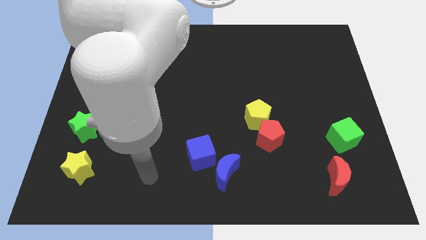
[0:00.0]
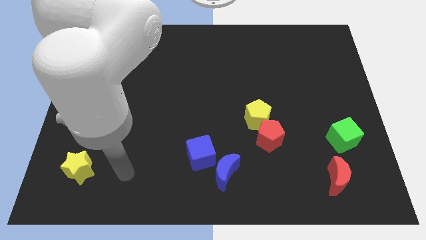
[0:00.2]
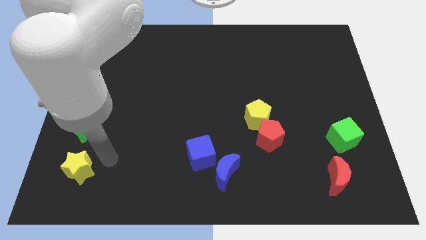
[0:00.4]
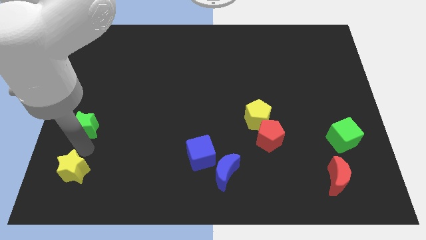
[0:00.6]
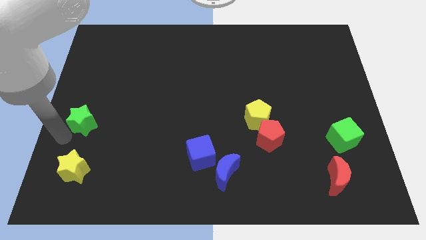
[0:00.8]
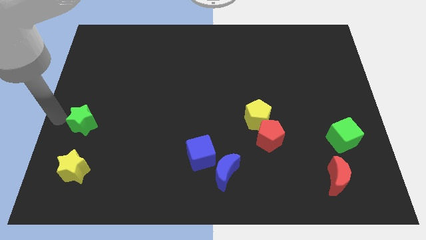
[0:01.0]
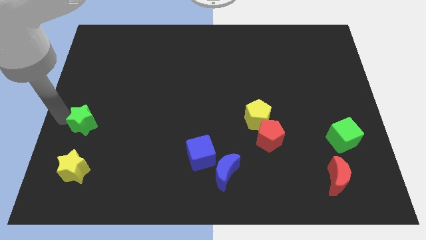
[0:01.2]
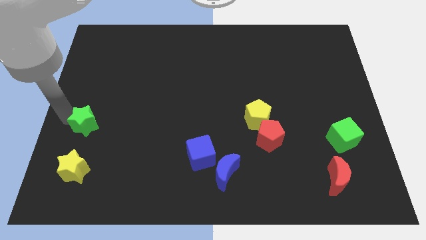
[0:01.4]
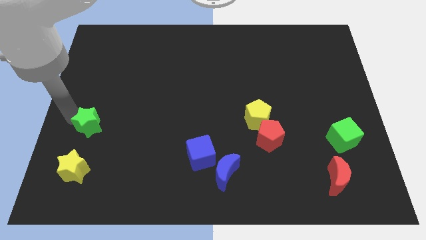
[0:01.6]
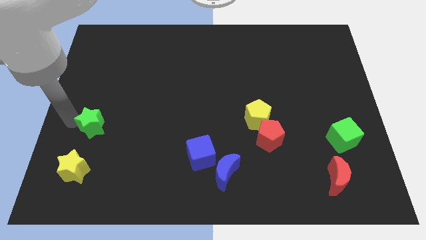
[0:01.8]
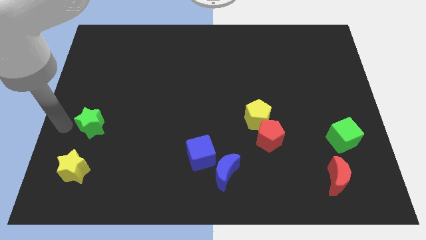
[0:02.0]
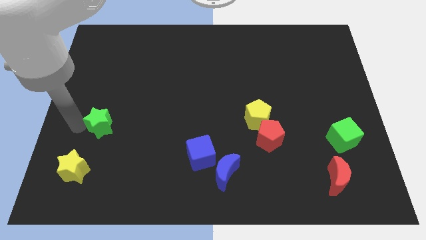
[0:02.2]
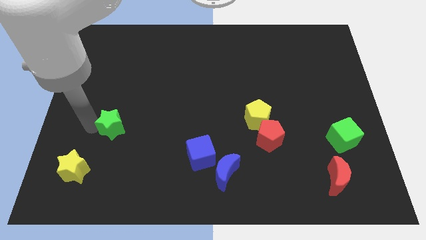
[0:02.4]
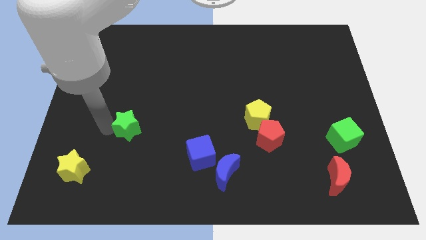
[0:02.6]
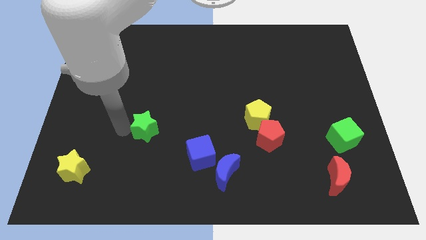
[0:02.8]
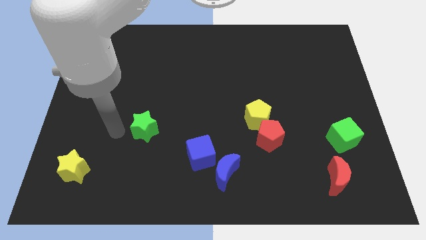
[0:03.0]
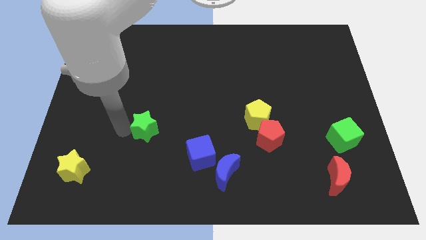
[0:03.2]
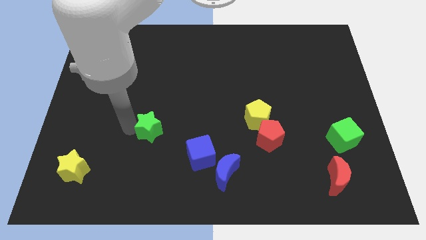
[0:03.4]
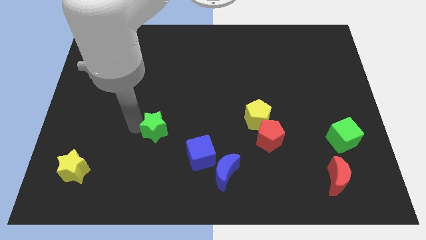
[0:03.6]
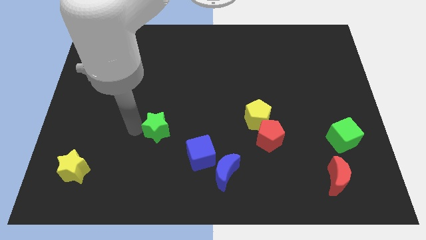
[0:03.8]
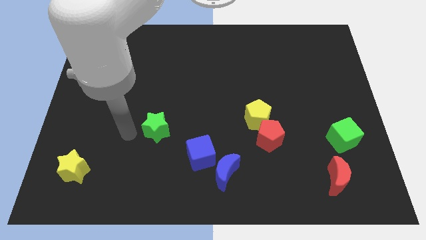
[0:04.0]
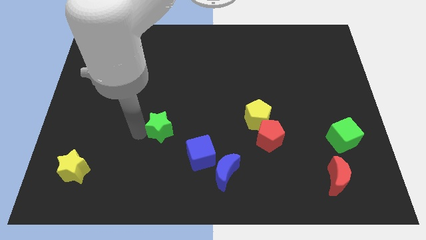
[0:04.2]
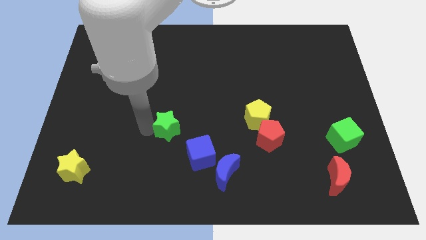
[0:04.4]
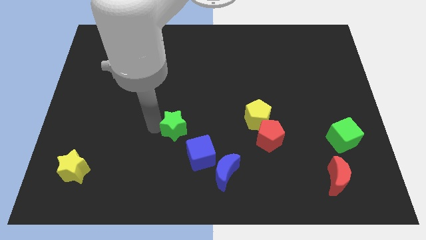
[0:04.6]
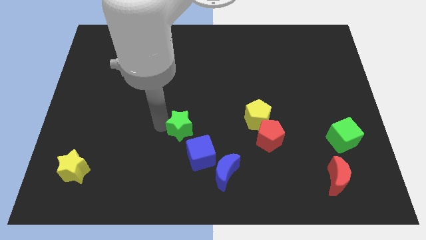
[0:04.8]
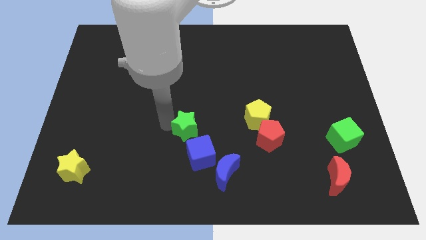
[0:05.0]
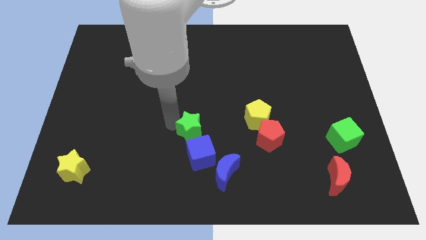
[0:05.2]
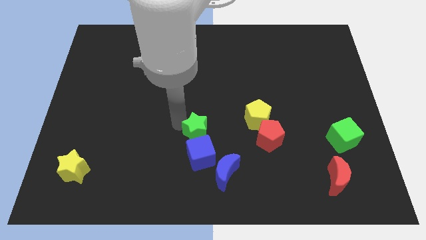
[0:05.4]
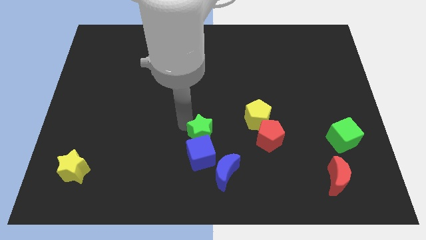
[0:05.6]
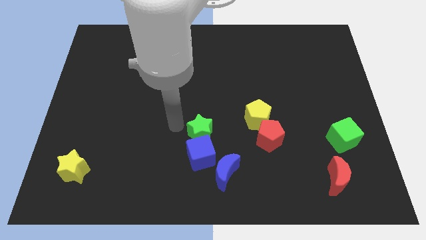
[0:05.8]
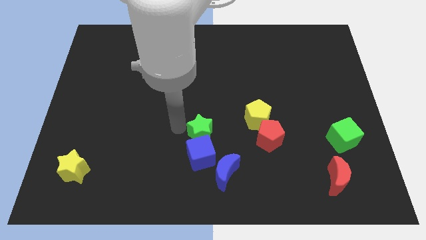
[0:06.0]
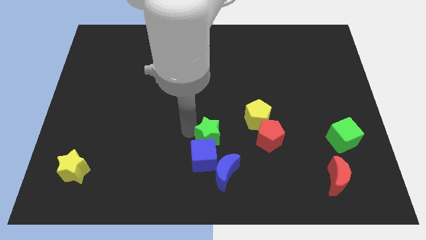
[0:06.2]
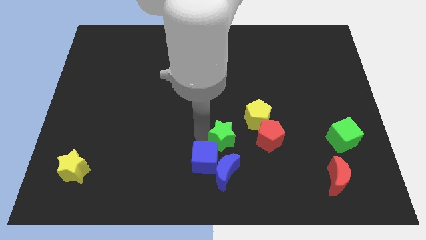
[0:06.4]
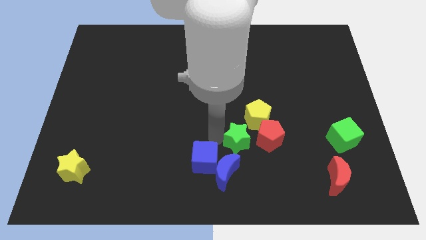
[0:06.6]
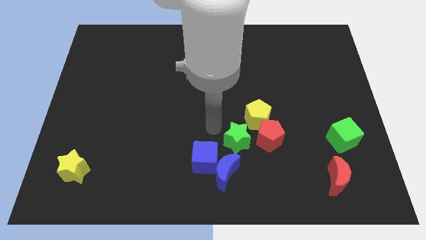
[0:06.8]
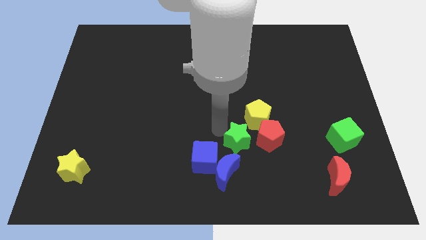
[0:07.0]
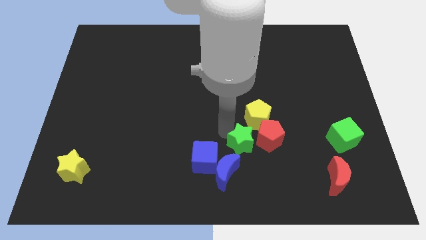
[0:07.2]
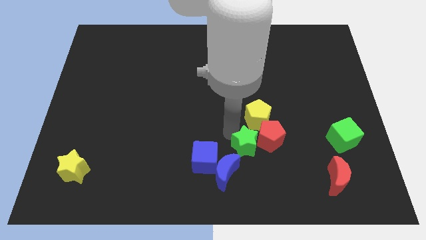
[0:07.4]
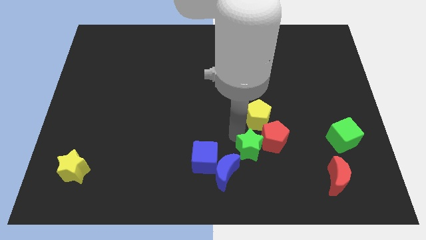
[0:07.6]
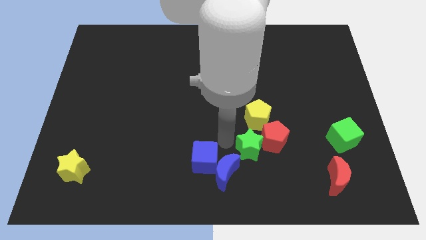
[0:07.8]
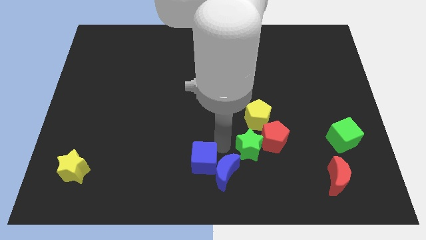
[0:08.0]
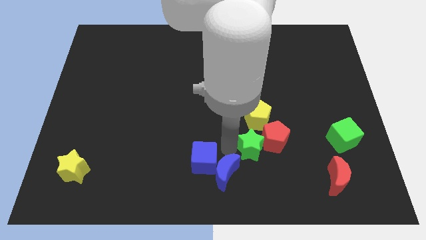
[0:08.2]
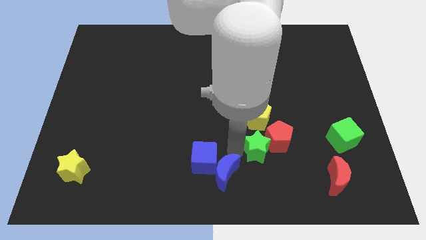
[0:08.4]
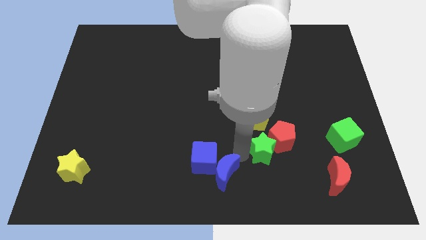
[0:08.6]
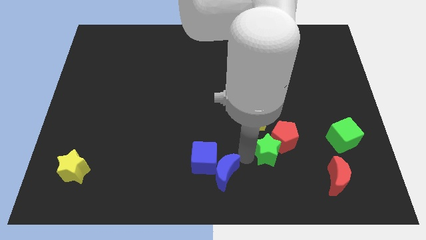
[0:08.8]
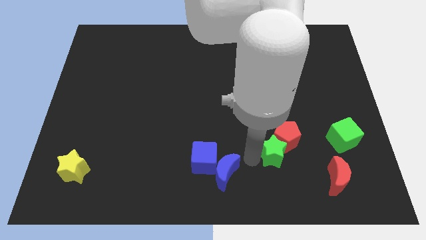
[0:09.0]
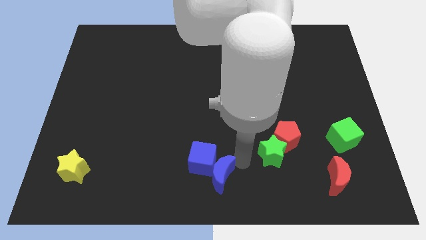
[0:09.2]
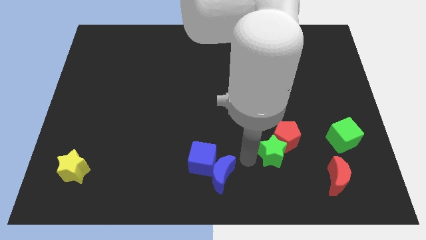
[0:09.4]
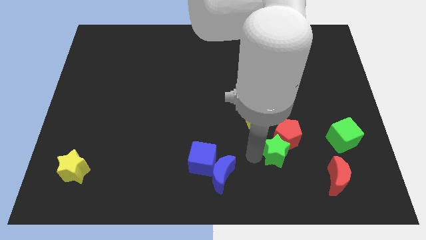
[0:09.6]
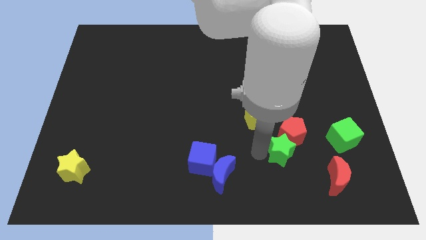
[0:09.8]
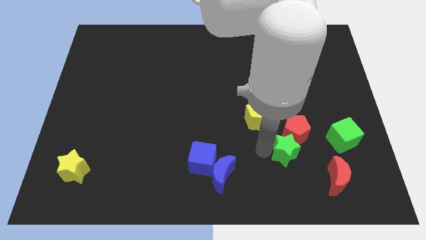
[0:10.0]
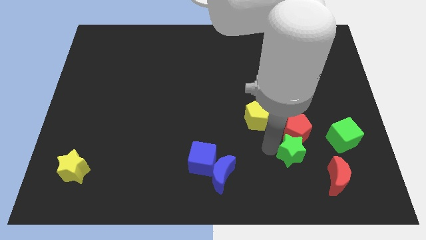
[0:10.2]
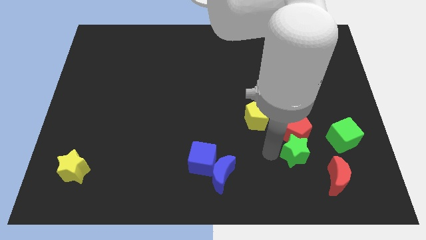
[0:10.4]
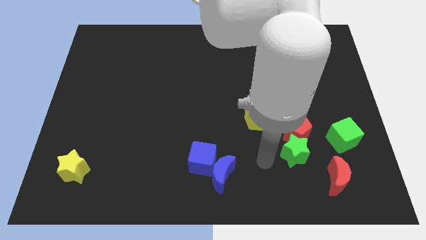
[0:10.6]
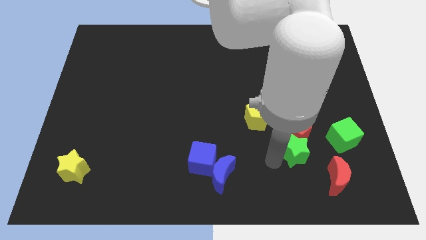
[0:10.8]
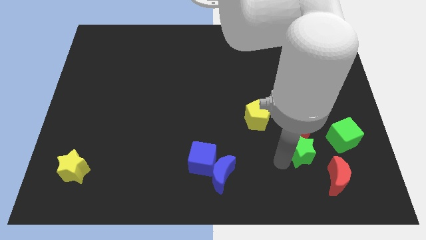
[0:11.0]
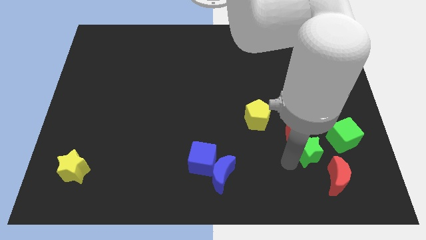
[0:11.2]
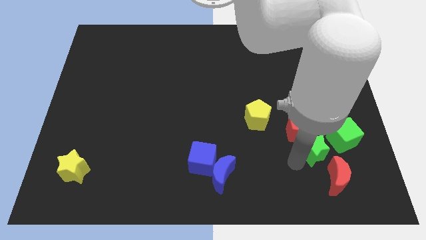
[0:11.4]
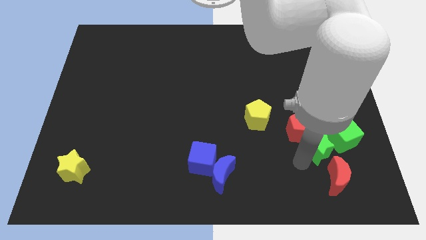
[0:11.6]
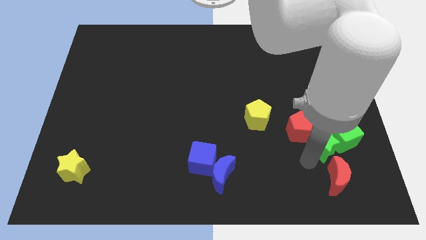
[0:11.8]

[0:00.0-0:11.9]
slide the green star next to the green cube

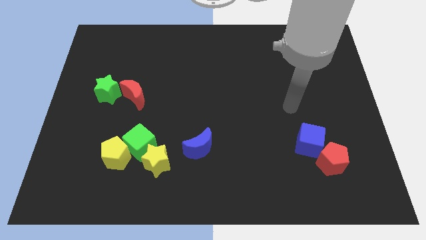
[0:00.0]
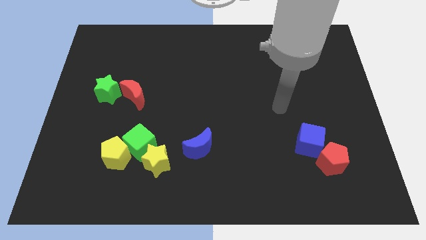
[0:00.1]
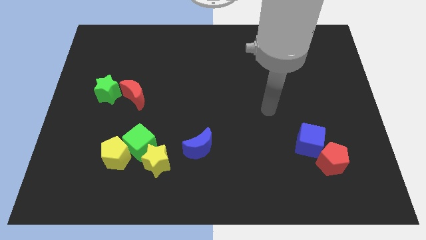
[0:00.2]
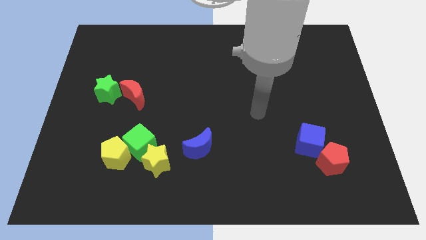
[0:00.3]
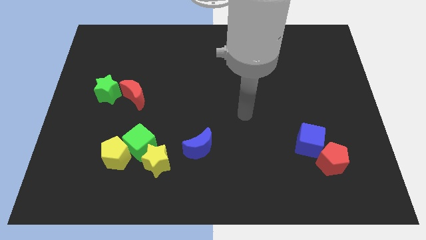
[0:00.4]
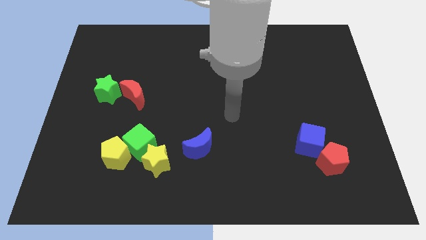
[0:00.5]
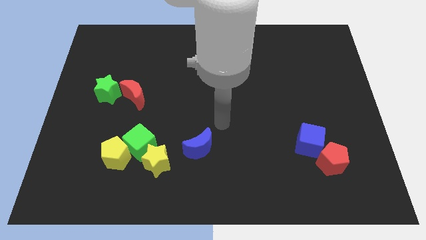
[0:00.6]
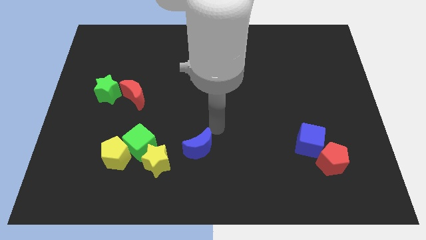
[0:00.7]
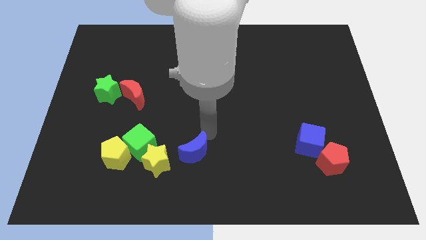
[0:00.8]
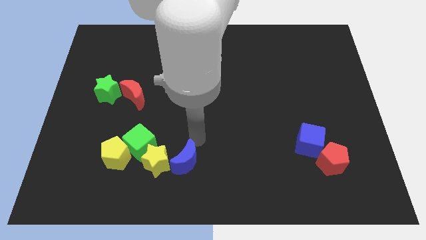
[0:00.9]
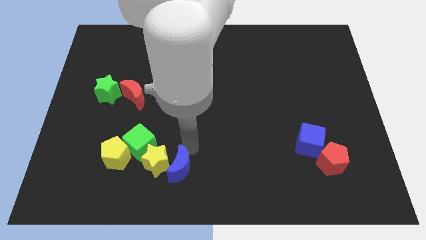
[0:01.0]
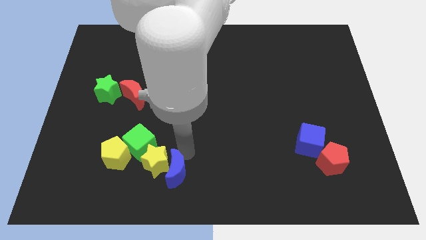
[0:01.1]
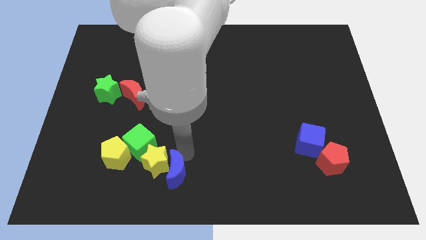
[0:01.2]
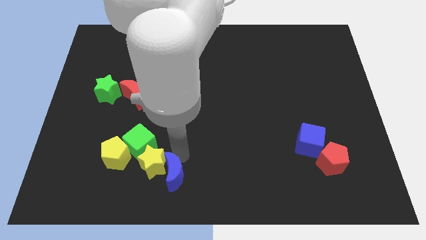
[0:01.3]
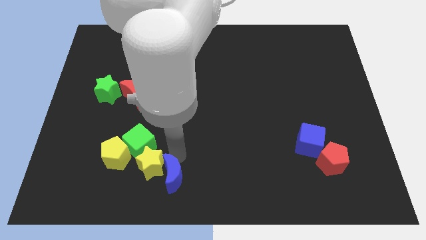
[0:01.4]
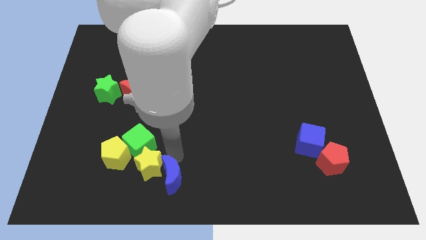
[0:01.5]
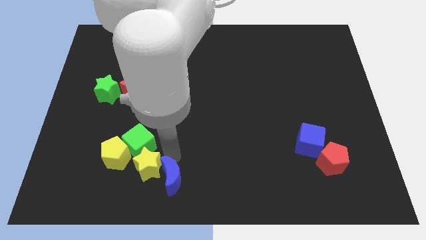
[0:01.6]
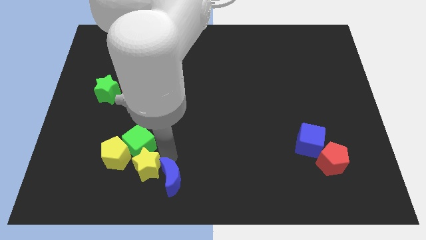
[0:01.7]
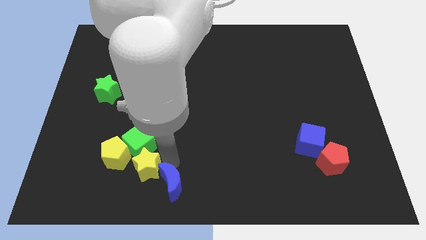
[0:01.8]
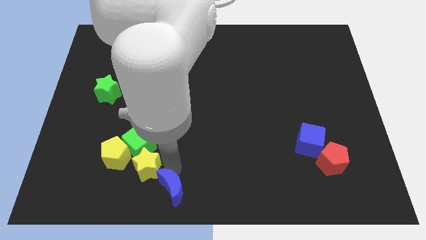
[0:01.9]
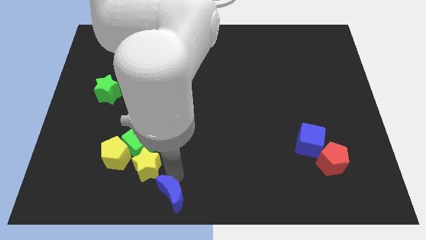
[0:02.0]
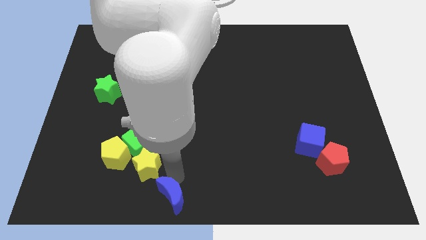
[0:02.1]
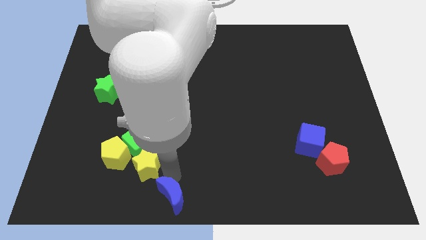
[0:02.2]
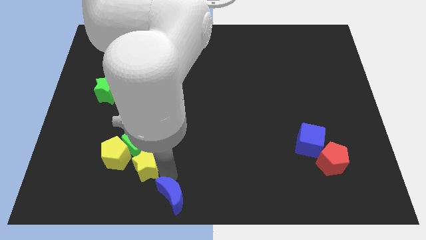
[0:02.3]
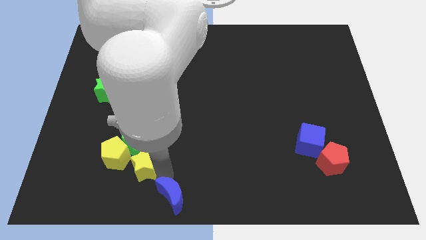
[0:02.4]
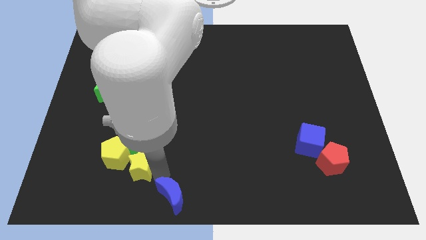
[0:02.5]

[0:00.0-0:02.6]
slide the yellow star next to the yellow pentagon
